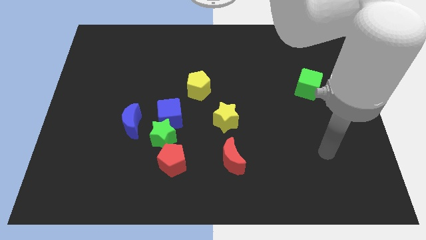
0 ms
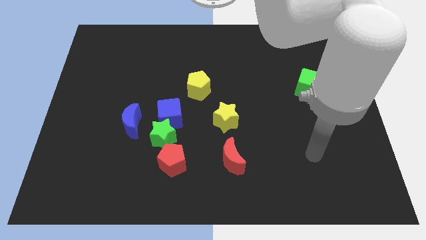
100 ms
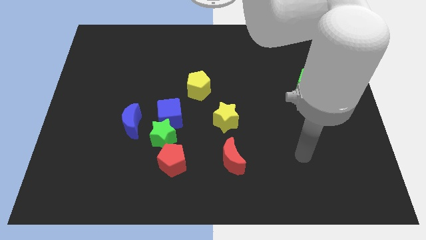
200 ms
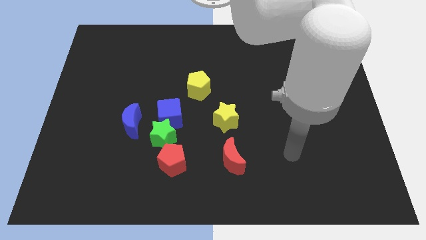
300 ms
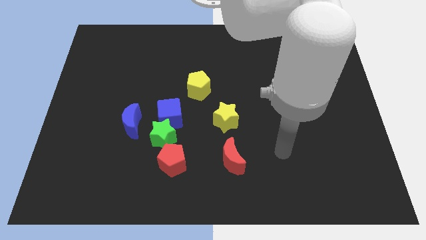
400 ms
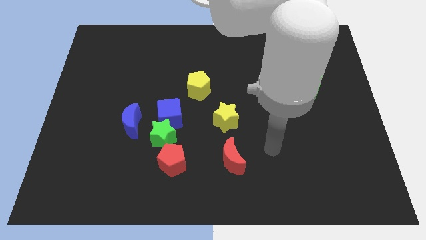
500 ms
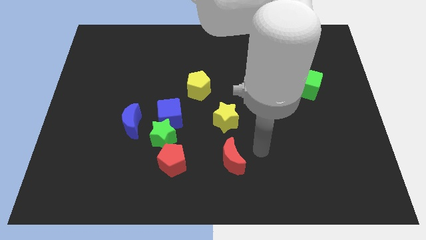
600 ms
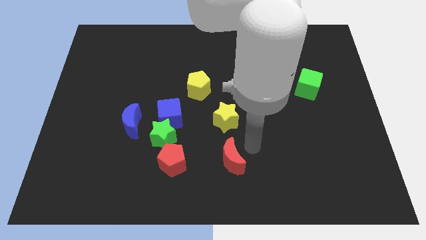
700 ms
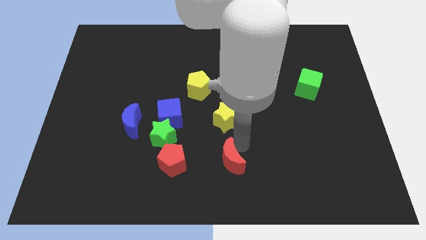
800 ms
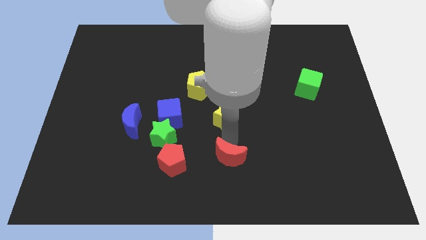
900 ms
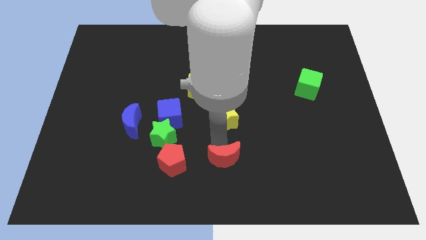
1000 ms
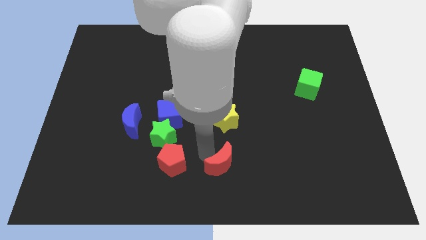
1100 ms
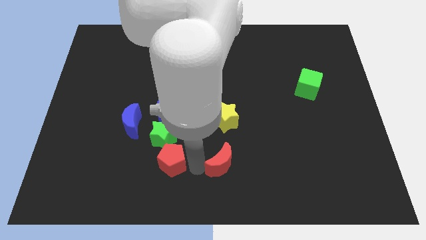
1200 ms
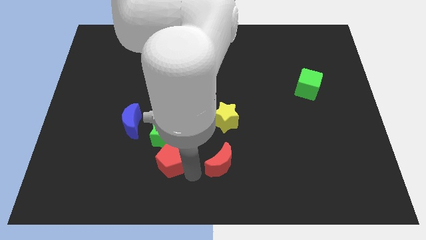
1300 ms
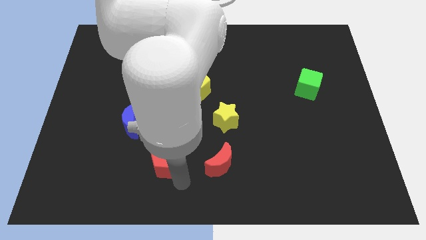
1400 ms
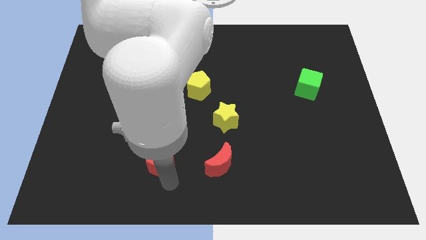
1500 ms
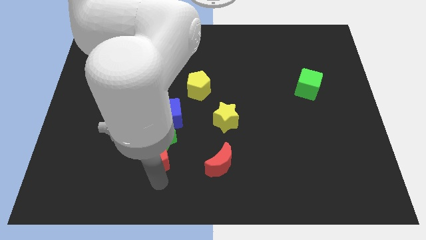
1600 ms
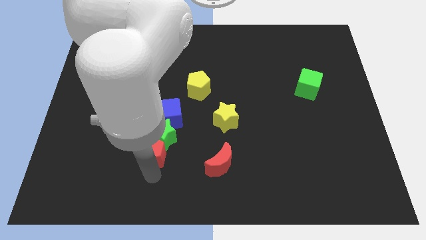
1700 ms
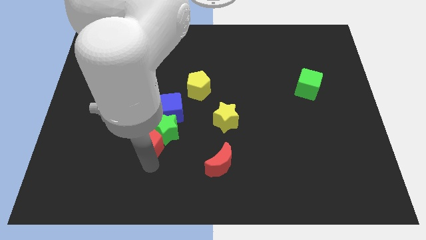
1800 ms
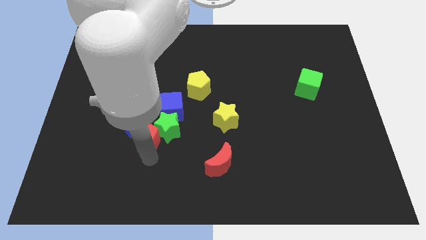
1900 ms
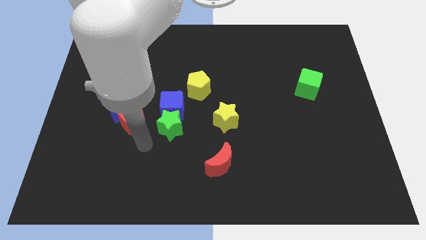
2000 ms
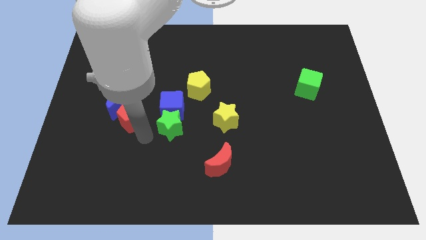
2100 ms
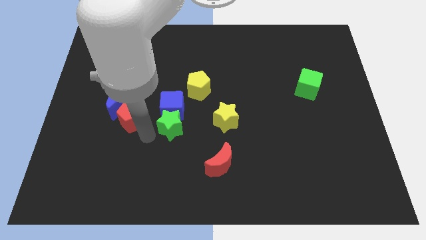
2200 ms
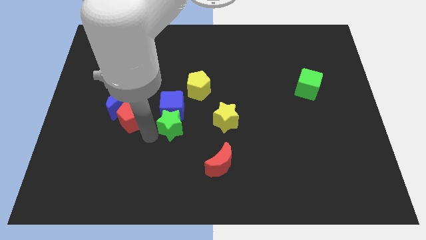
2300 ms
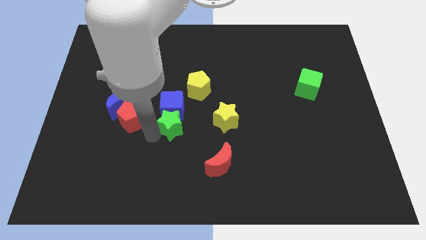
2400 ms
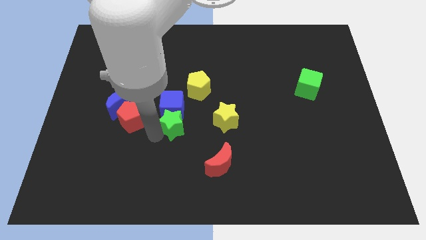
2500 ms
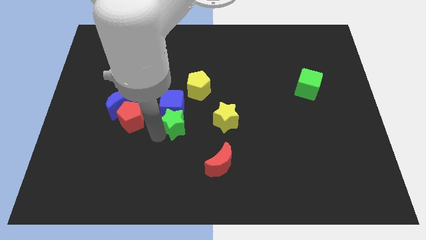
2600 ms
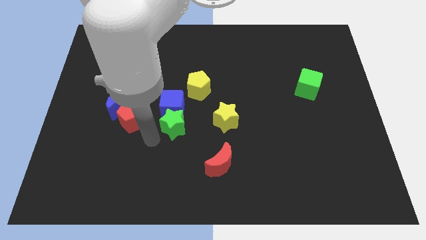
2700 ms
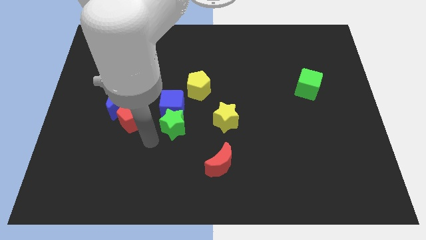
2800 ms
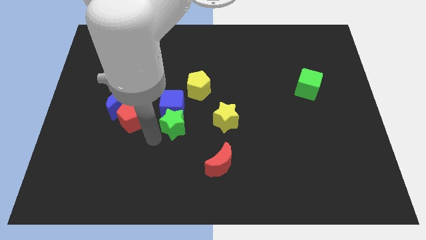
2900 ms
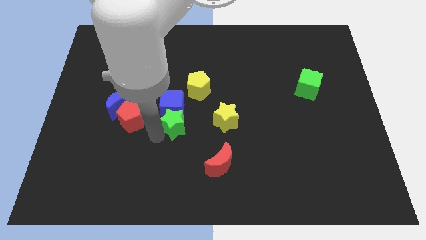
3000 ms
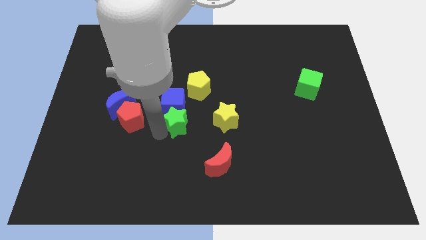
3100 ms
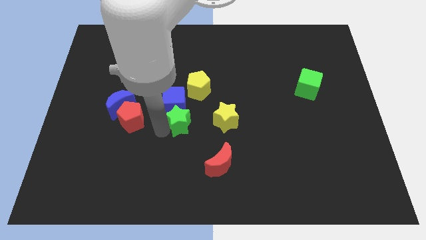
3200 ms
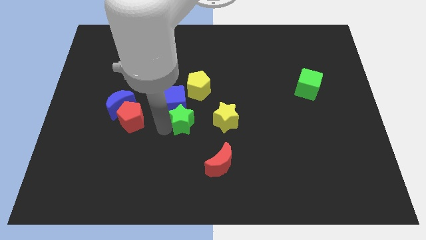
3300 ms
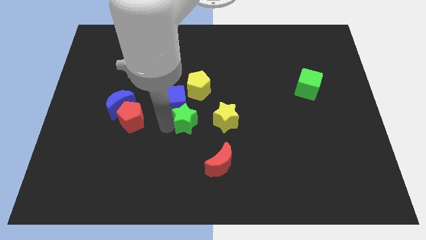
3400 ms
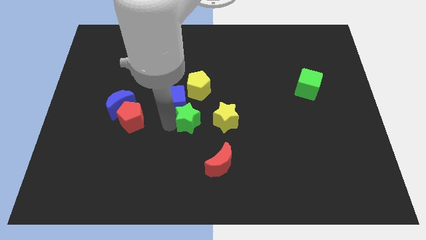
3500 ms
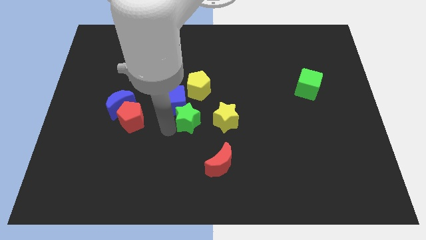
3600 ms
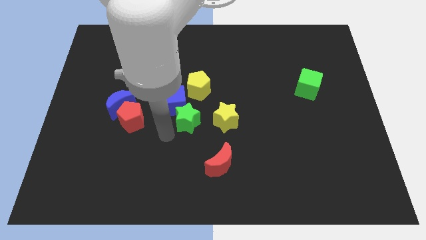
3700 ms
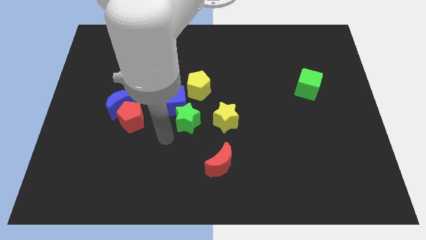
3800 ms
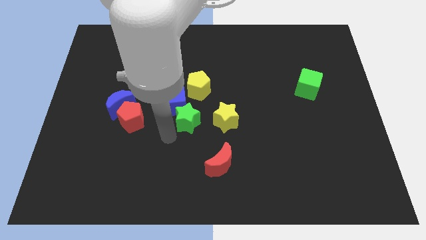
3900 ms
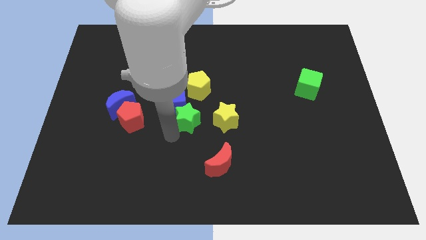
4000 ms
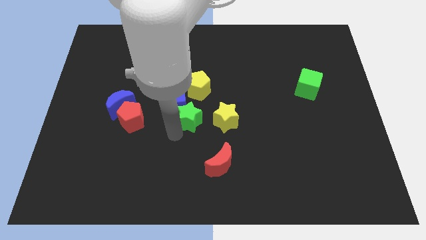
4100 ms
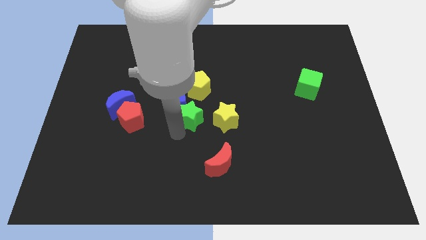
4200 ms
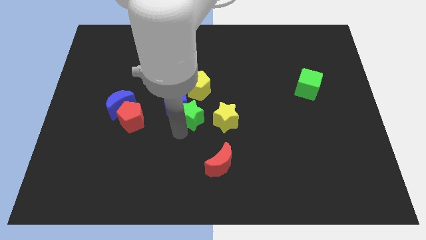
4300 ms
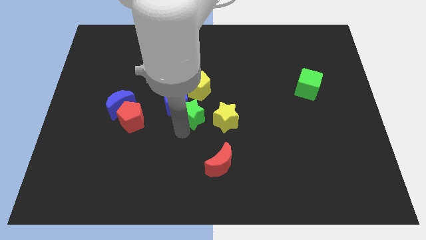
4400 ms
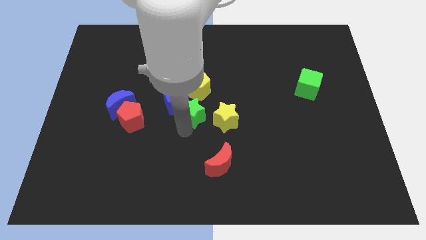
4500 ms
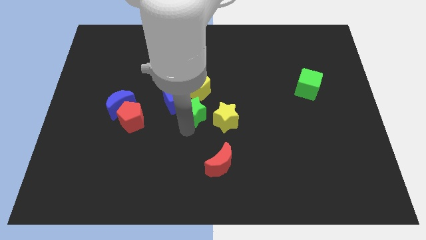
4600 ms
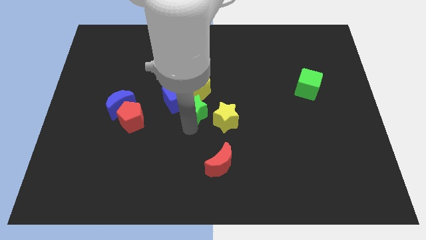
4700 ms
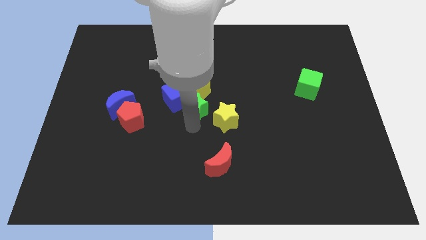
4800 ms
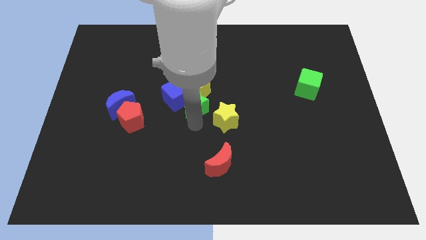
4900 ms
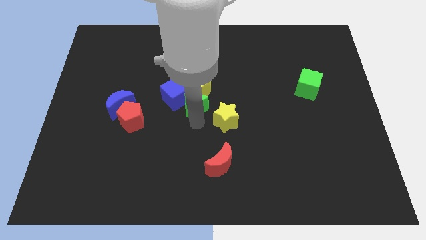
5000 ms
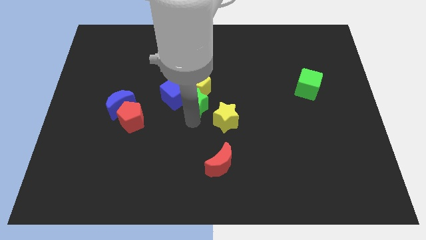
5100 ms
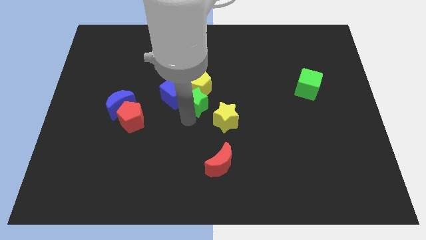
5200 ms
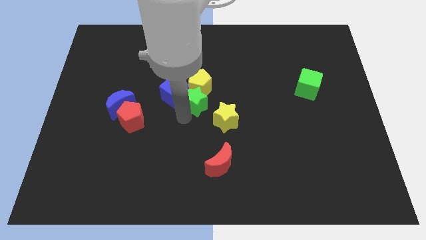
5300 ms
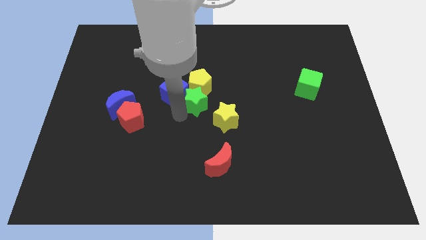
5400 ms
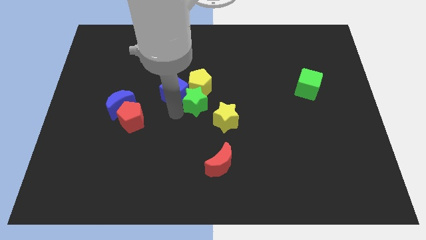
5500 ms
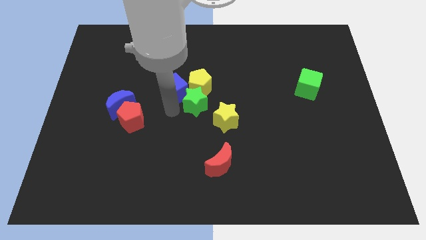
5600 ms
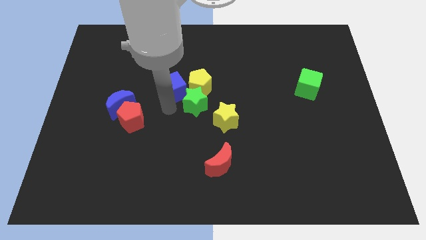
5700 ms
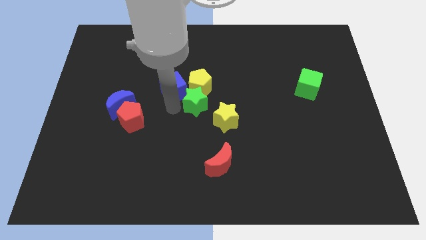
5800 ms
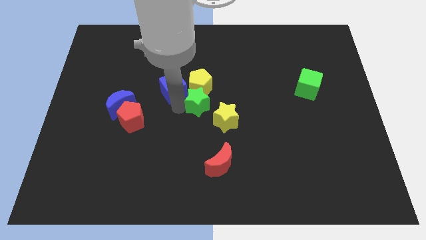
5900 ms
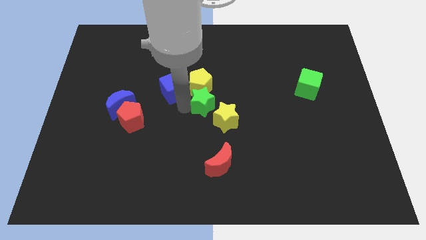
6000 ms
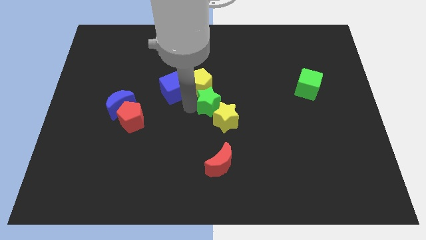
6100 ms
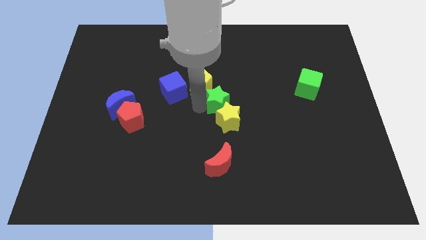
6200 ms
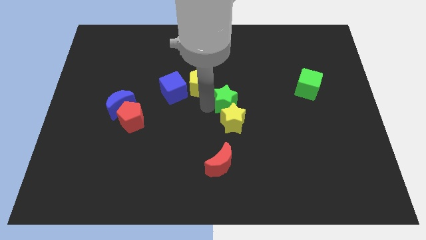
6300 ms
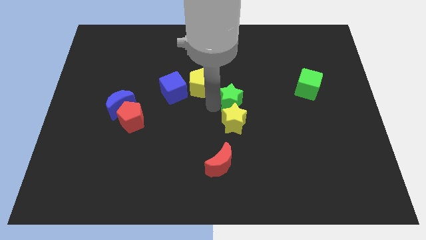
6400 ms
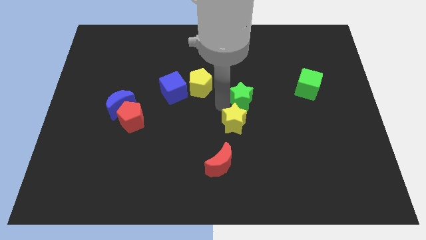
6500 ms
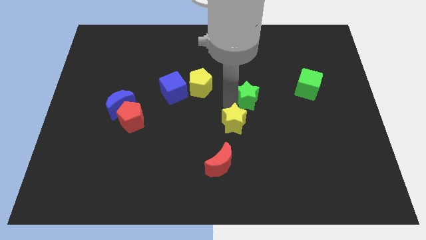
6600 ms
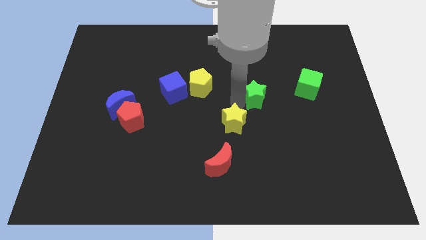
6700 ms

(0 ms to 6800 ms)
push the green star just left of the green cube
